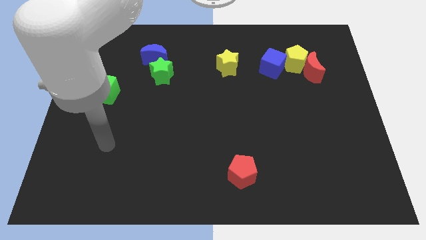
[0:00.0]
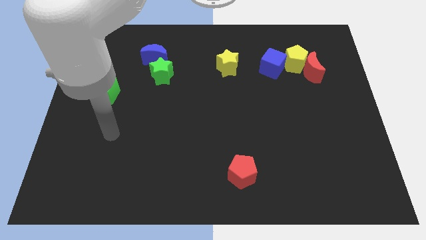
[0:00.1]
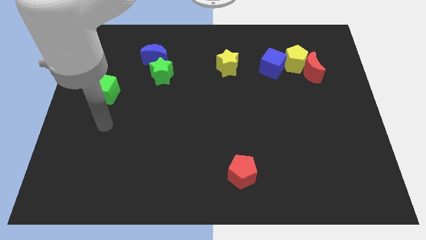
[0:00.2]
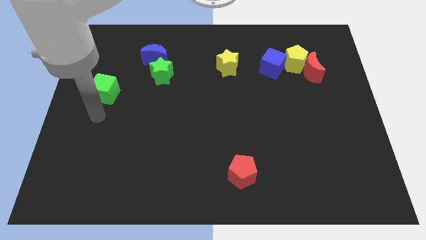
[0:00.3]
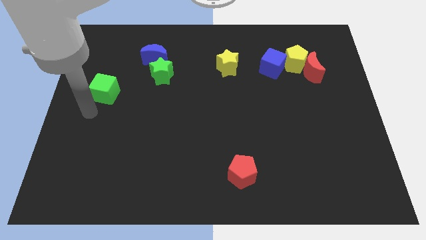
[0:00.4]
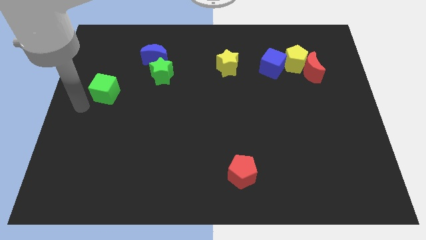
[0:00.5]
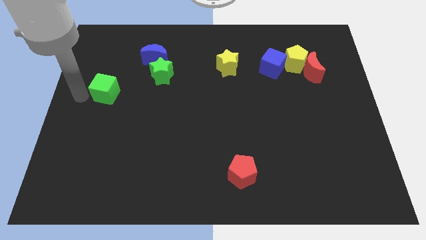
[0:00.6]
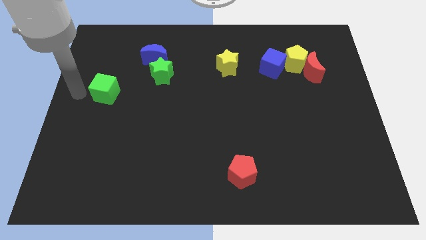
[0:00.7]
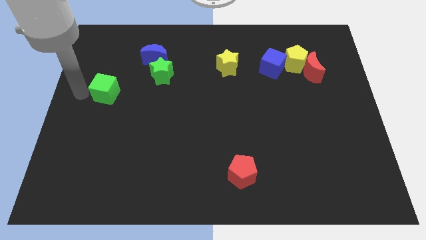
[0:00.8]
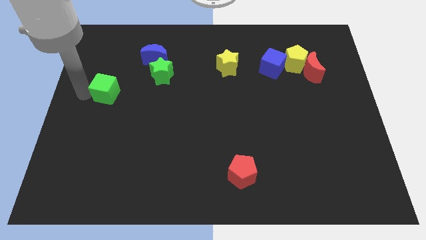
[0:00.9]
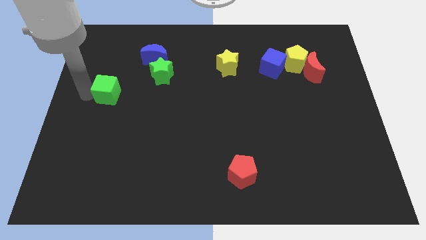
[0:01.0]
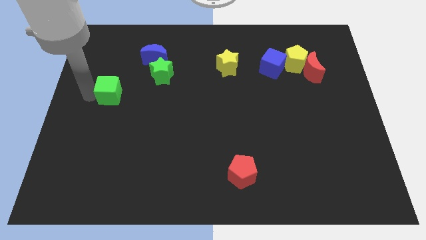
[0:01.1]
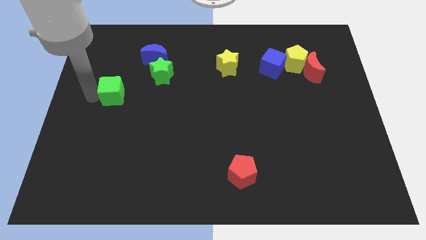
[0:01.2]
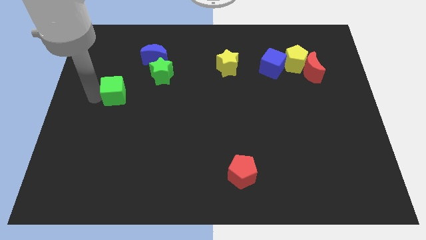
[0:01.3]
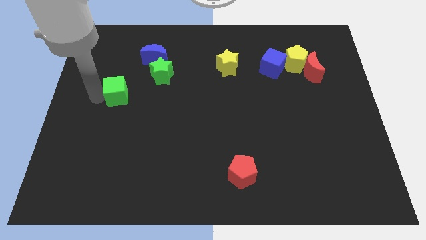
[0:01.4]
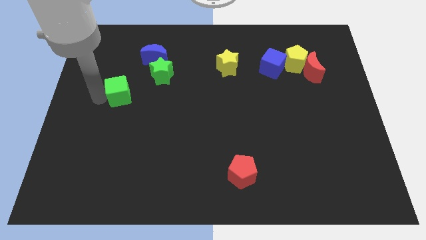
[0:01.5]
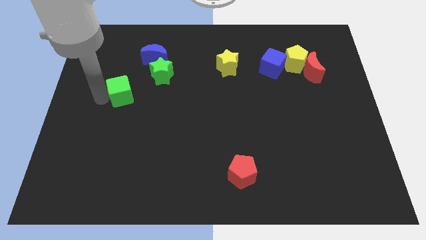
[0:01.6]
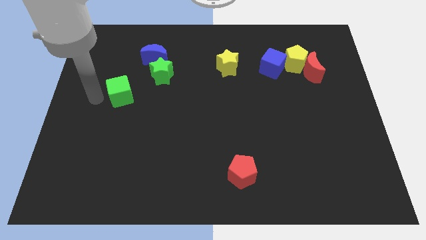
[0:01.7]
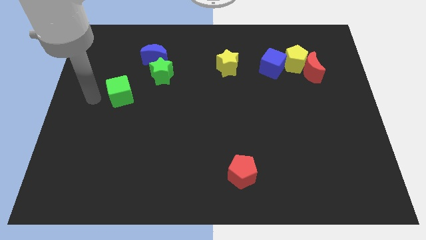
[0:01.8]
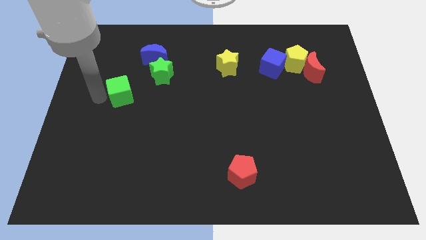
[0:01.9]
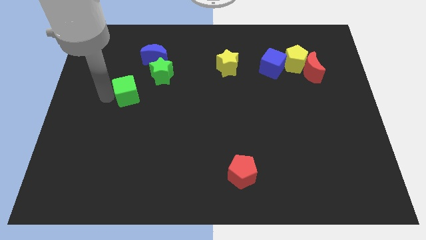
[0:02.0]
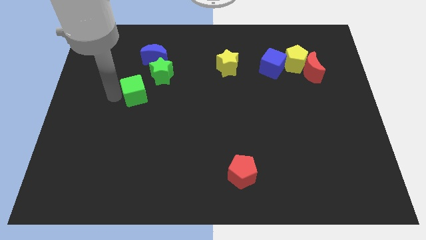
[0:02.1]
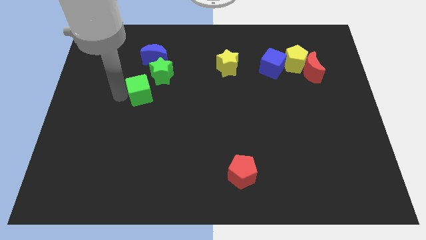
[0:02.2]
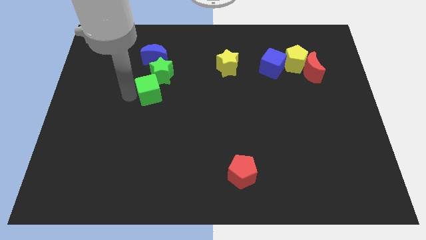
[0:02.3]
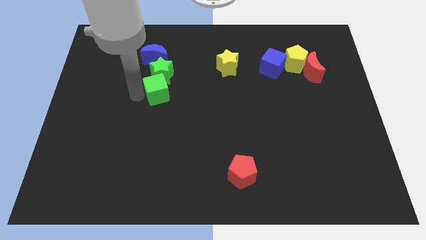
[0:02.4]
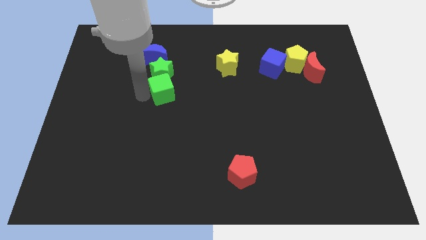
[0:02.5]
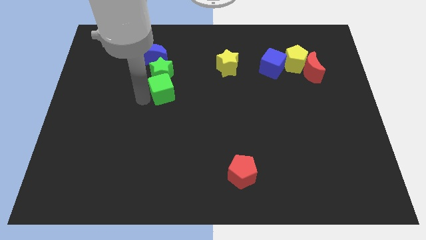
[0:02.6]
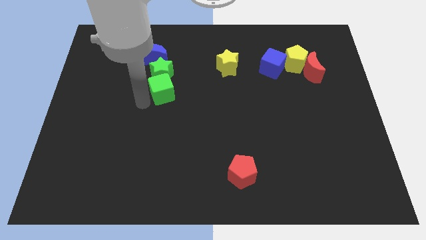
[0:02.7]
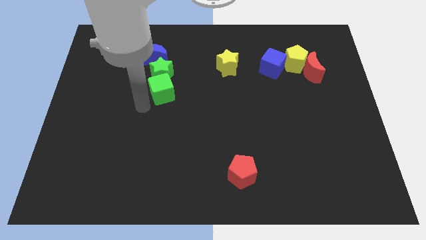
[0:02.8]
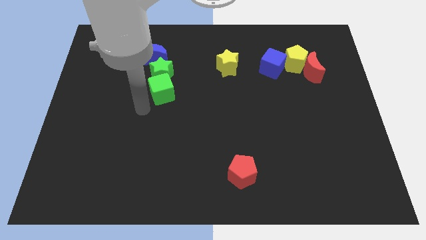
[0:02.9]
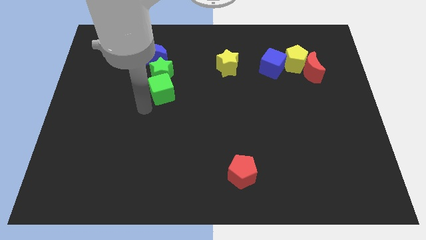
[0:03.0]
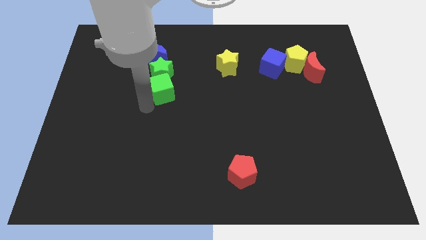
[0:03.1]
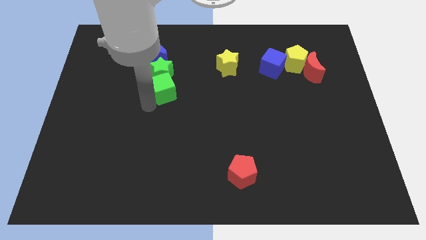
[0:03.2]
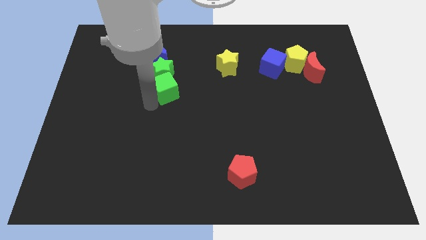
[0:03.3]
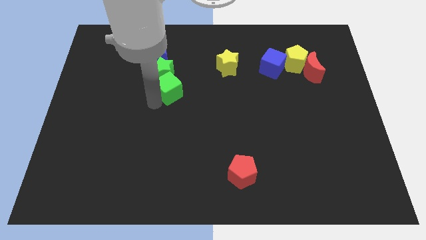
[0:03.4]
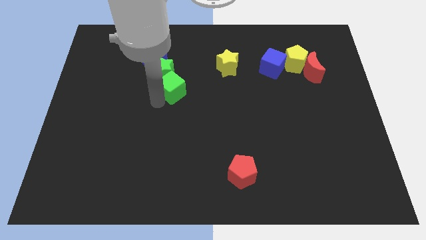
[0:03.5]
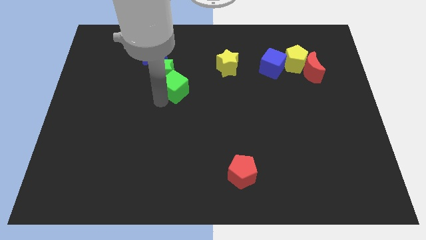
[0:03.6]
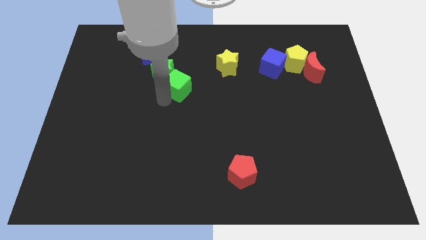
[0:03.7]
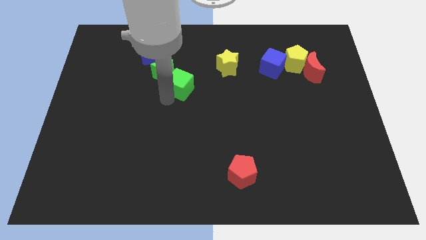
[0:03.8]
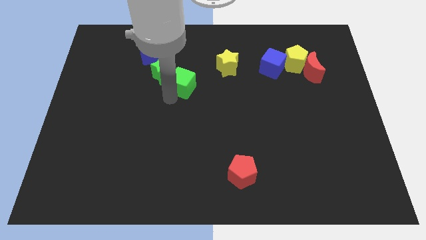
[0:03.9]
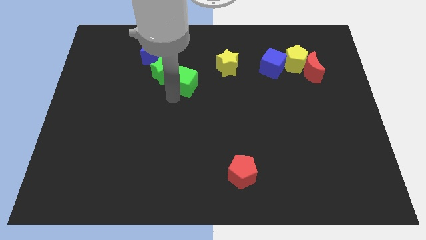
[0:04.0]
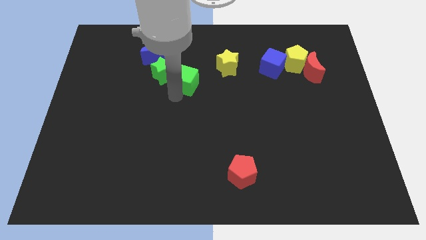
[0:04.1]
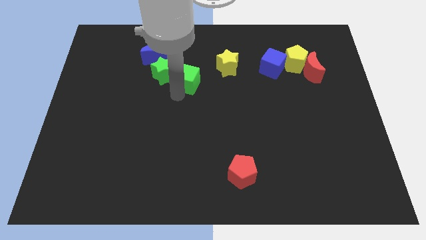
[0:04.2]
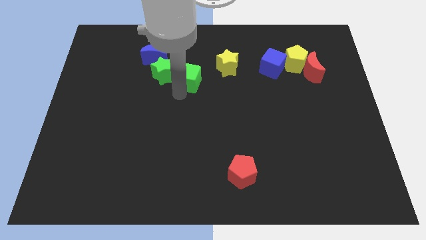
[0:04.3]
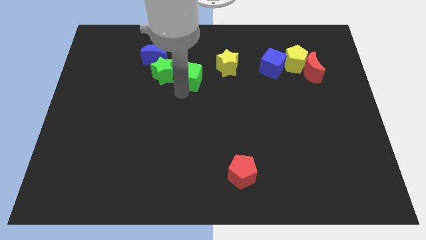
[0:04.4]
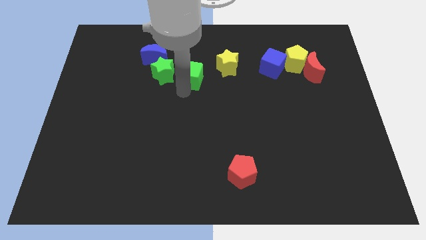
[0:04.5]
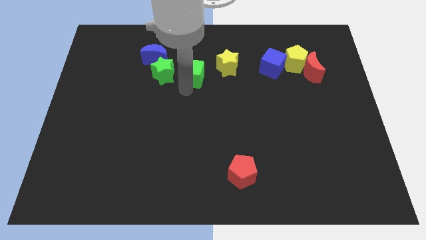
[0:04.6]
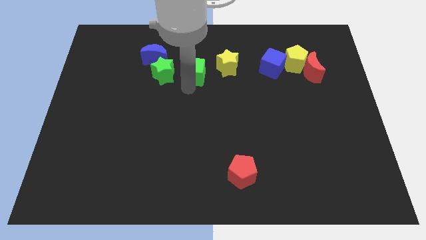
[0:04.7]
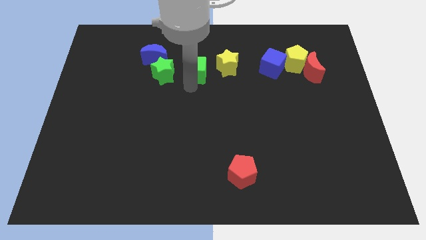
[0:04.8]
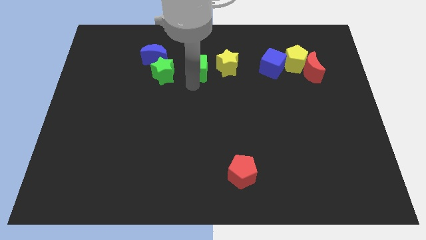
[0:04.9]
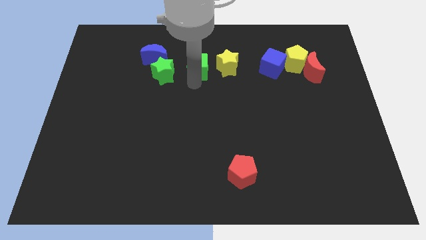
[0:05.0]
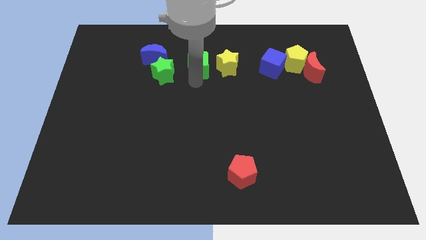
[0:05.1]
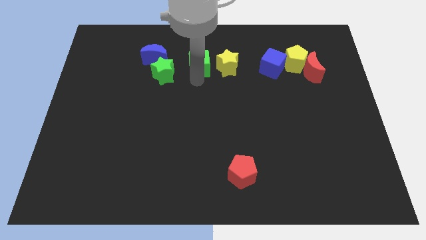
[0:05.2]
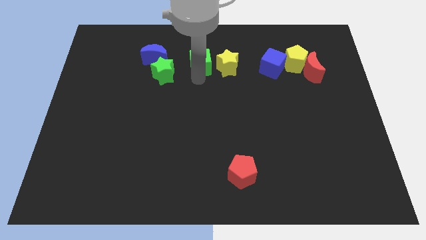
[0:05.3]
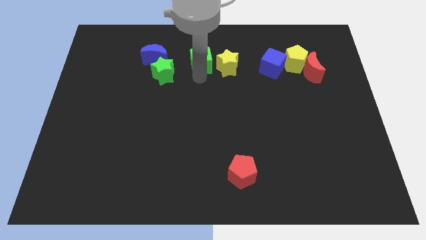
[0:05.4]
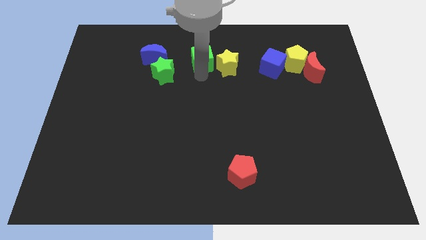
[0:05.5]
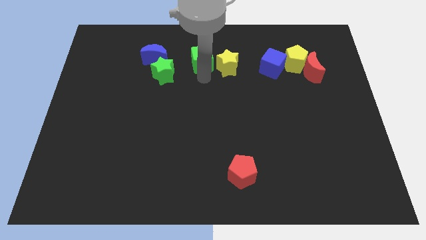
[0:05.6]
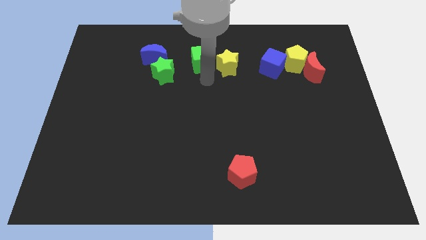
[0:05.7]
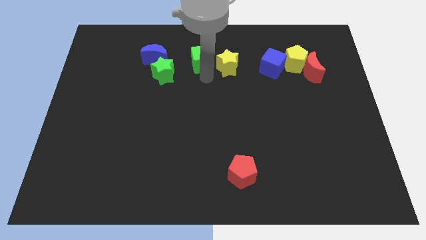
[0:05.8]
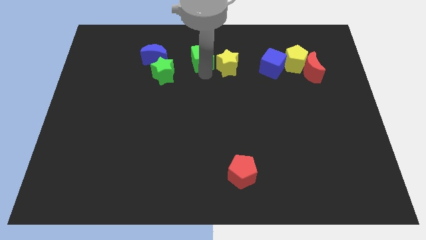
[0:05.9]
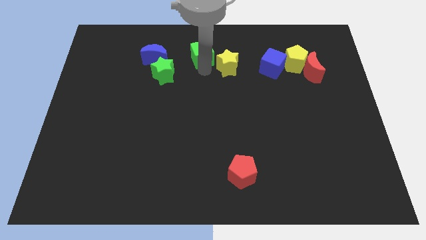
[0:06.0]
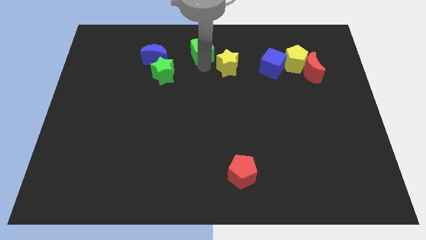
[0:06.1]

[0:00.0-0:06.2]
put the green cube to the top side

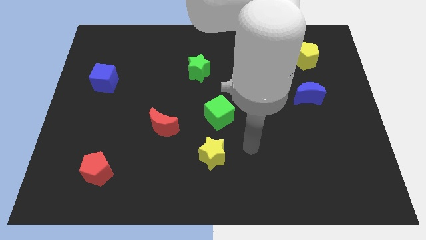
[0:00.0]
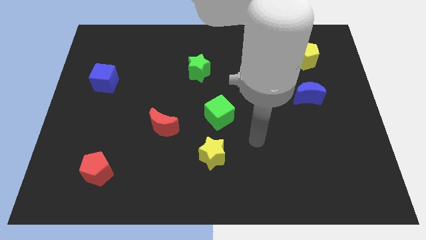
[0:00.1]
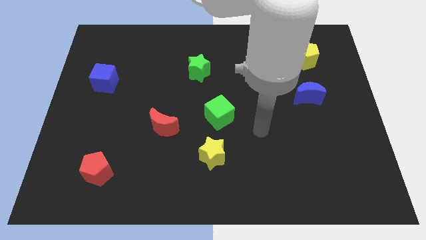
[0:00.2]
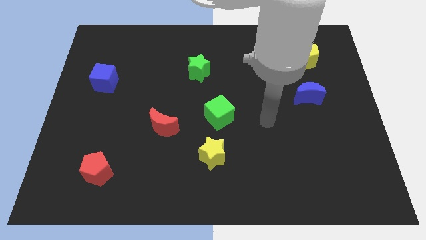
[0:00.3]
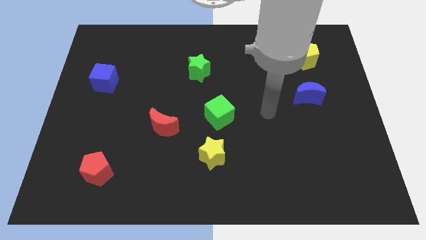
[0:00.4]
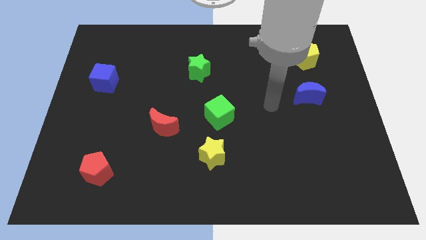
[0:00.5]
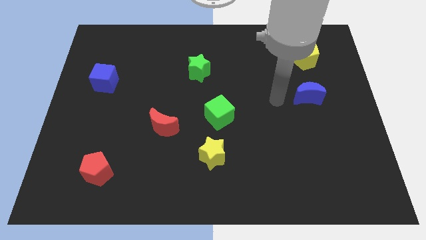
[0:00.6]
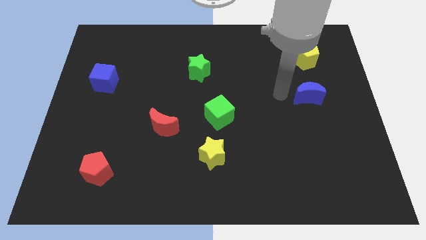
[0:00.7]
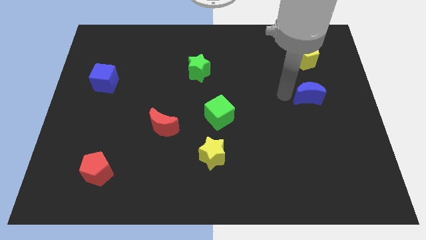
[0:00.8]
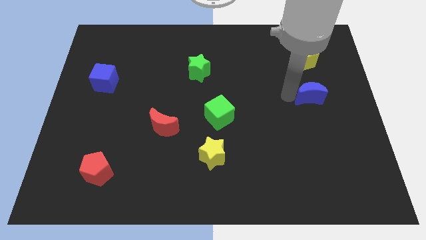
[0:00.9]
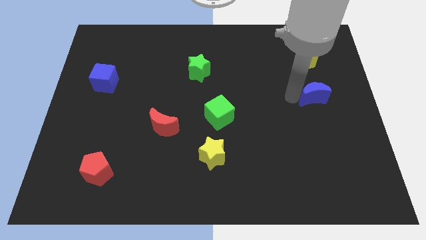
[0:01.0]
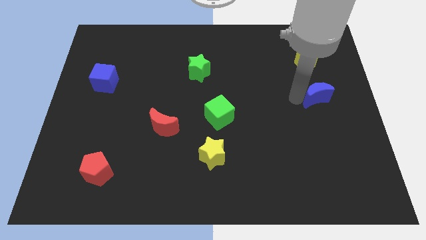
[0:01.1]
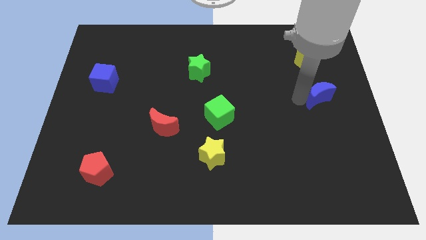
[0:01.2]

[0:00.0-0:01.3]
push the blue moon to the right side
